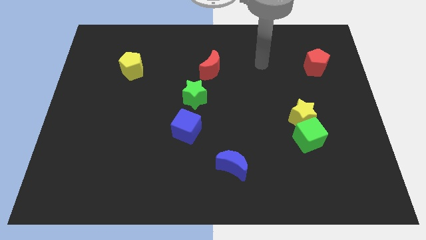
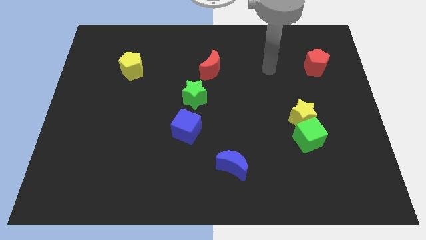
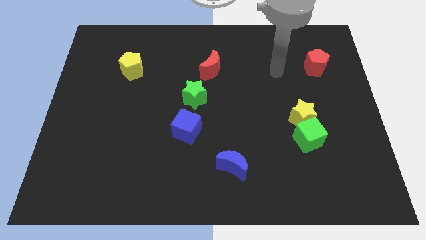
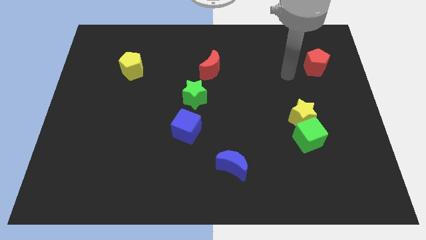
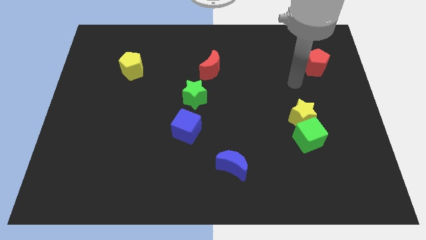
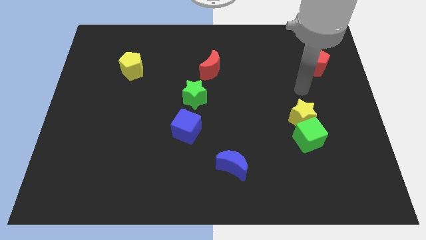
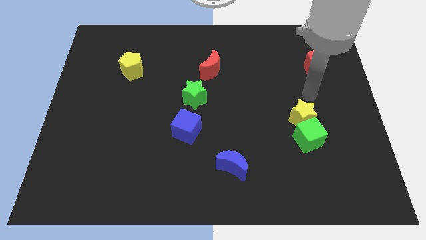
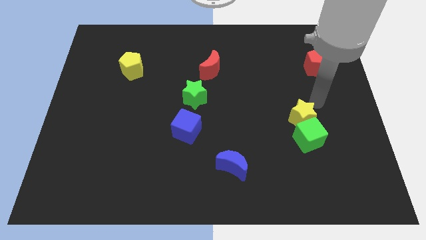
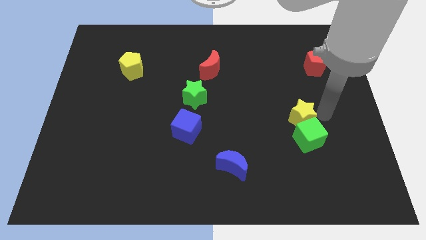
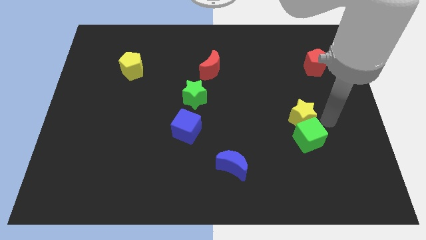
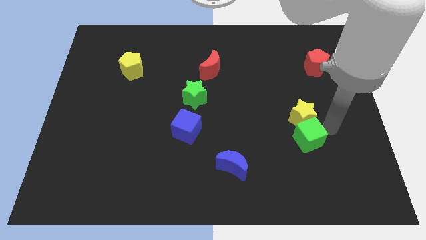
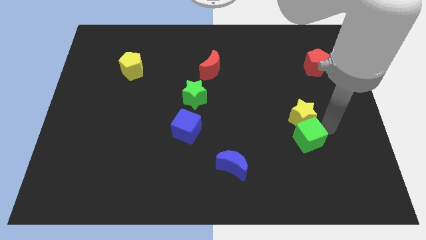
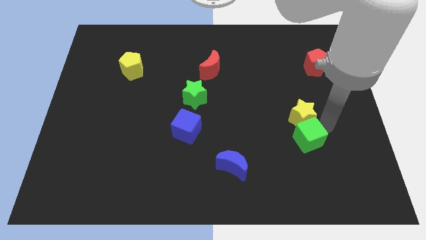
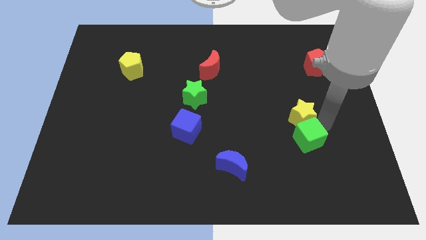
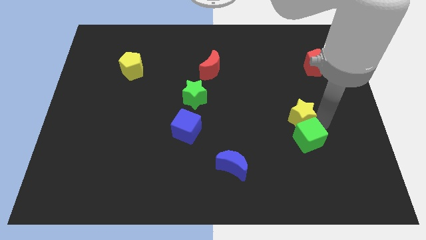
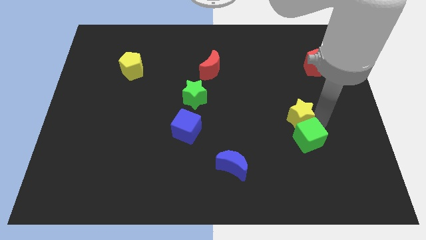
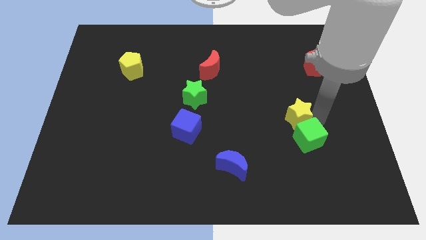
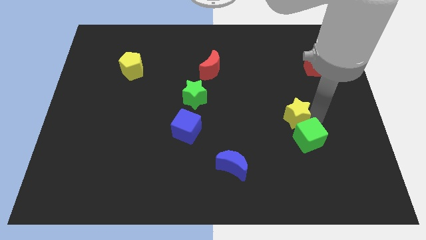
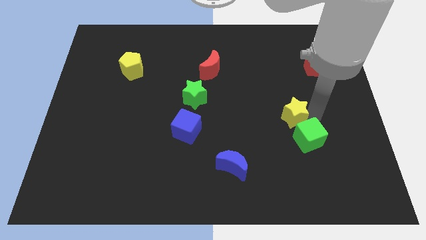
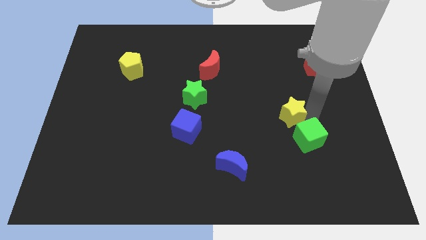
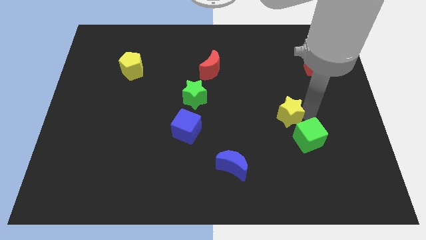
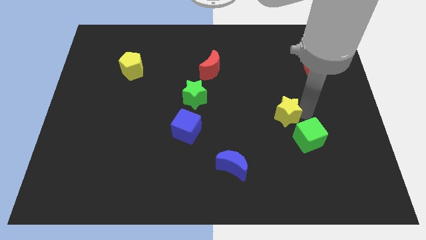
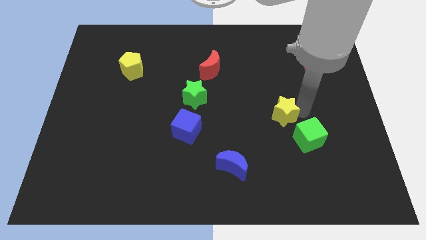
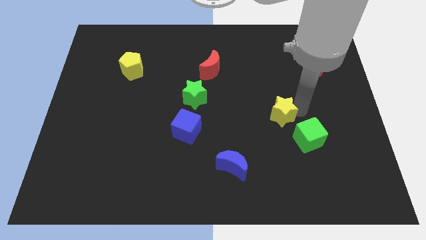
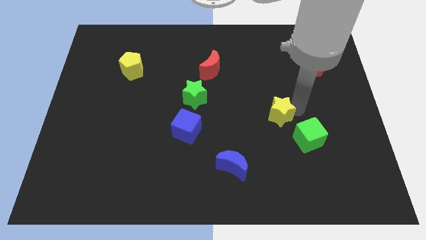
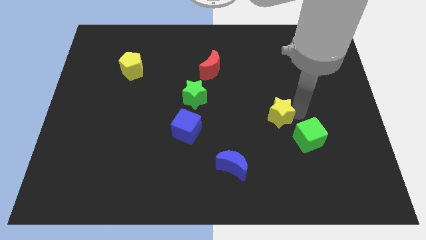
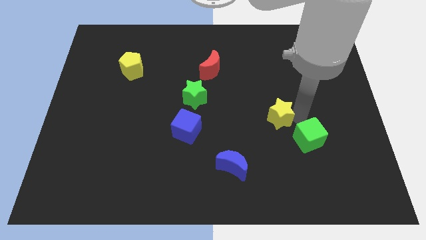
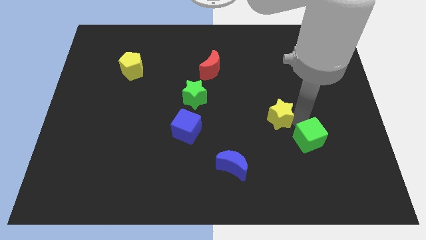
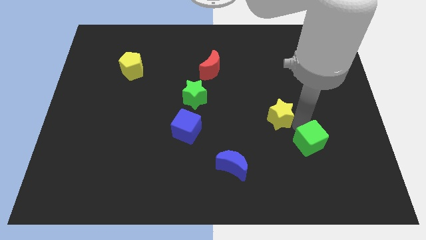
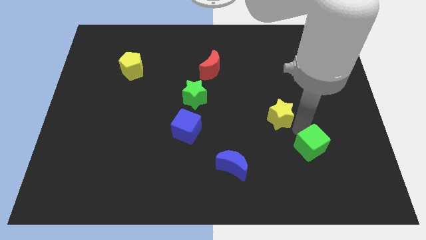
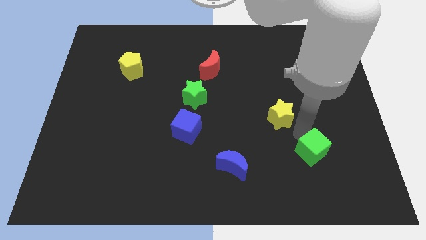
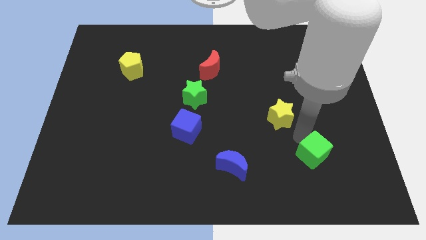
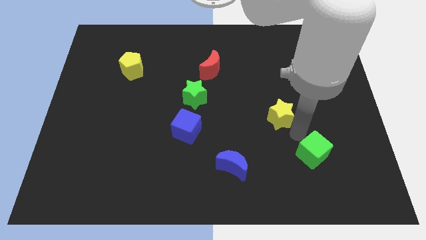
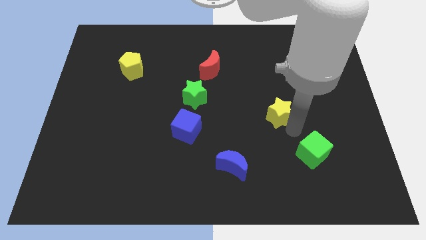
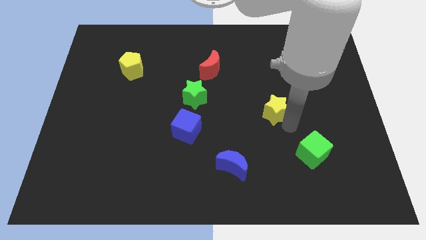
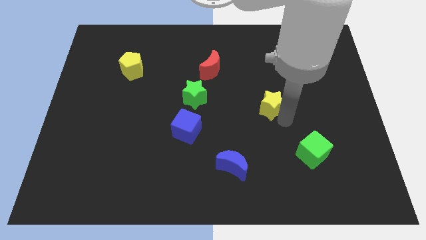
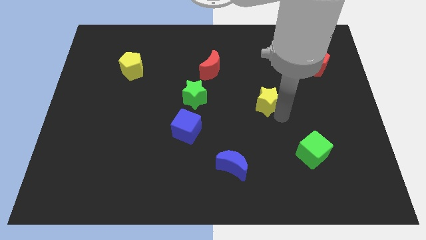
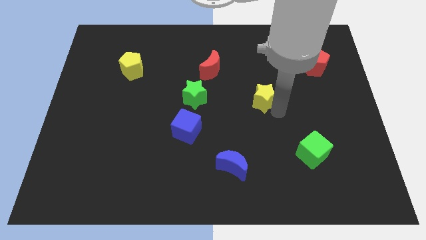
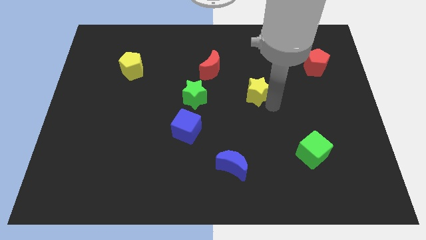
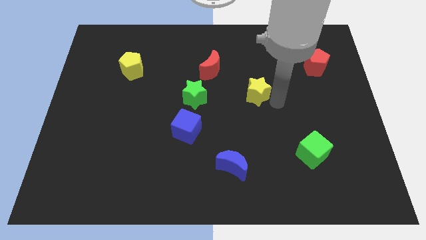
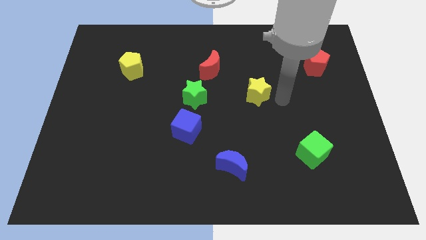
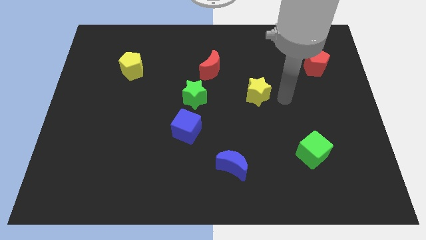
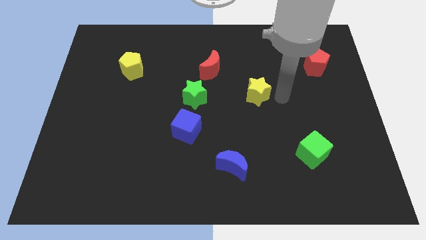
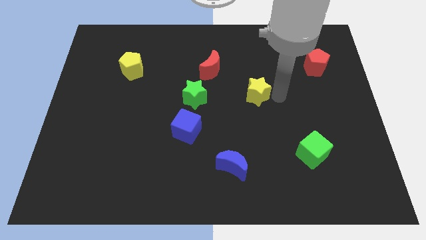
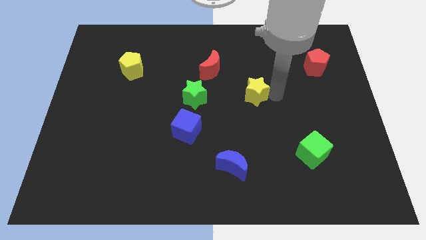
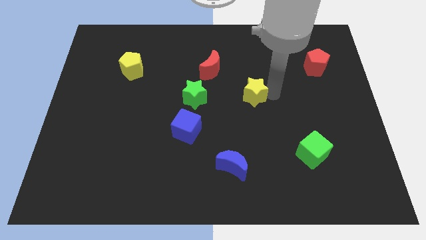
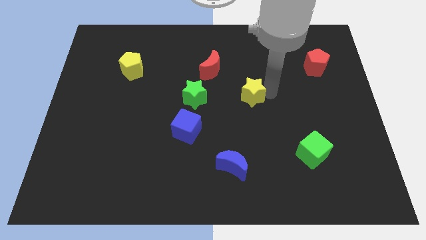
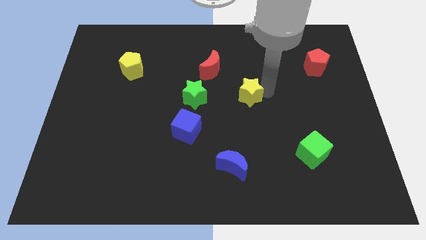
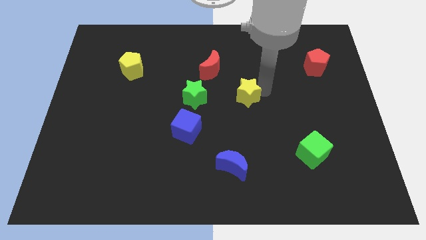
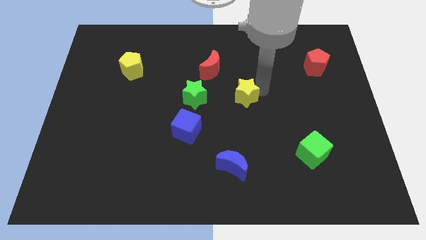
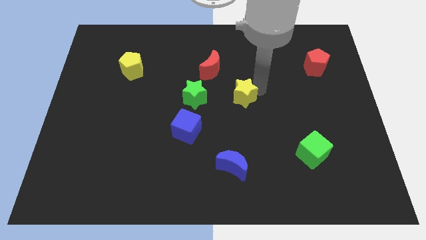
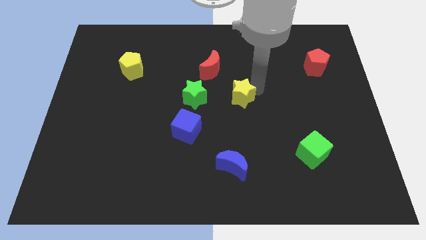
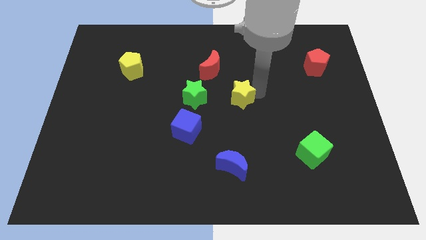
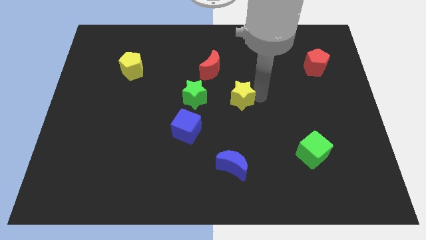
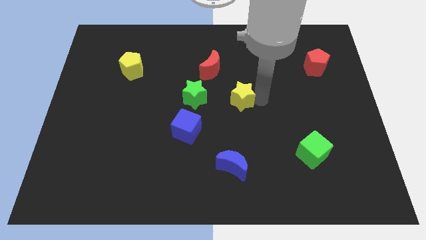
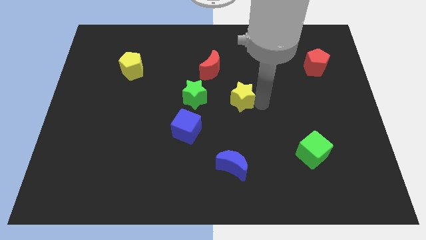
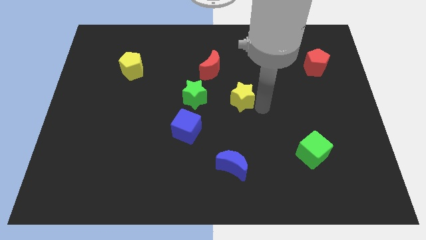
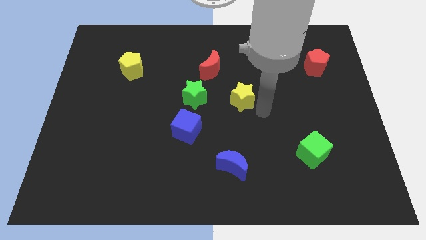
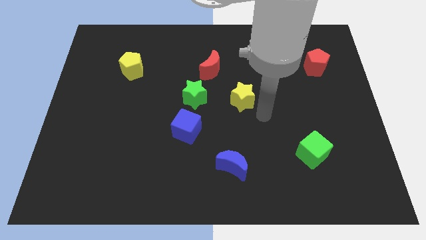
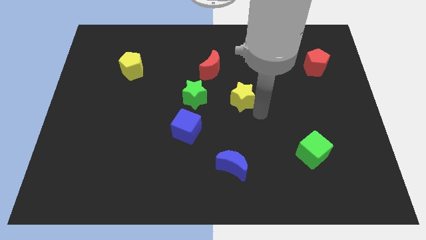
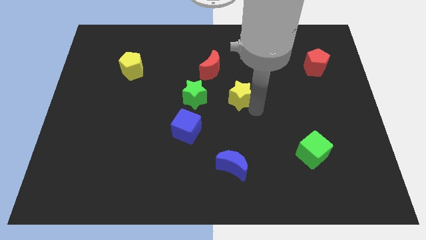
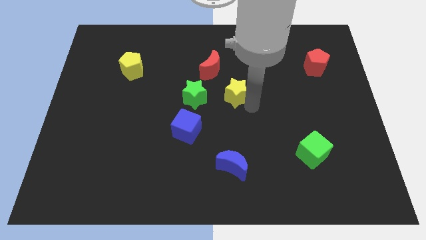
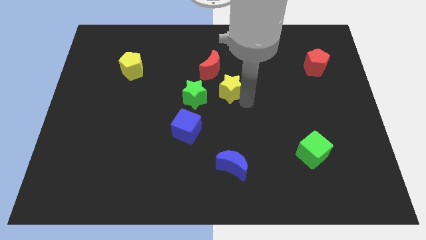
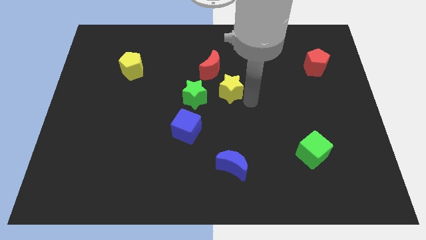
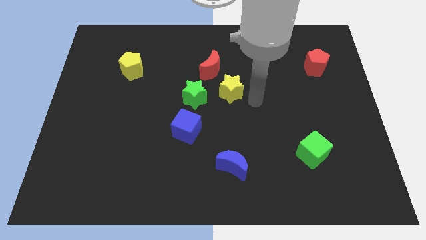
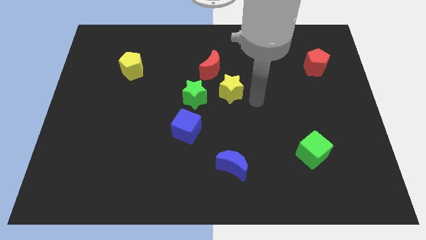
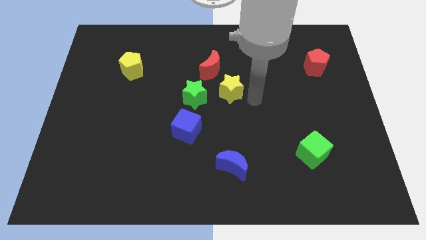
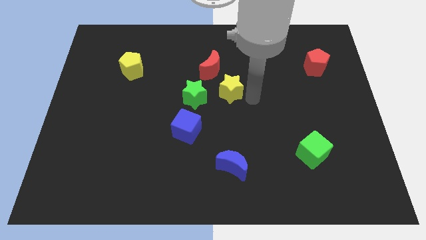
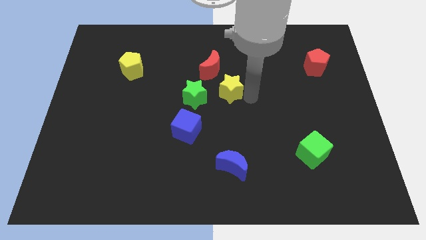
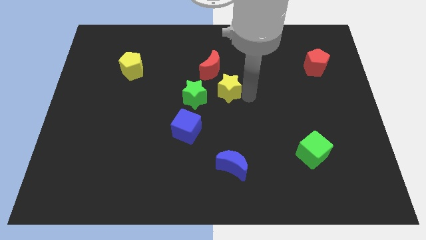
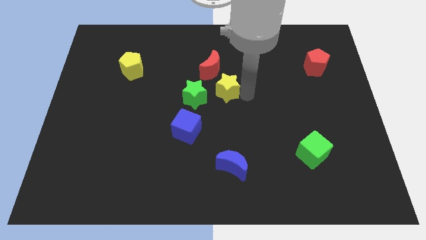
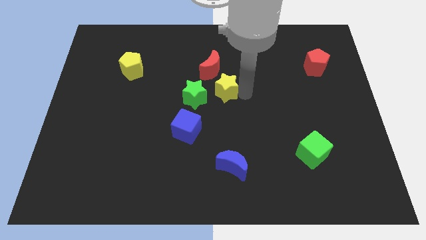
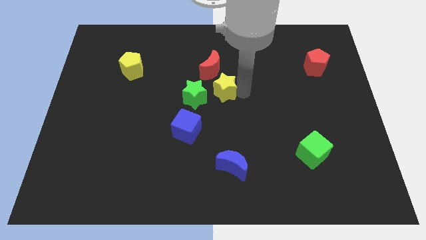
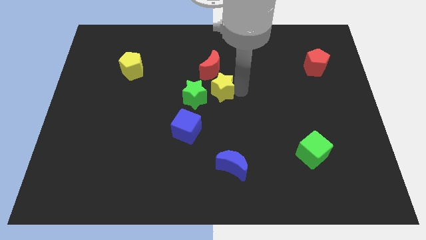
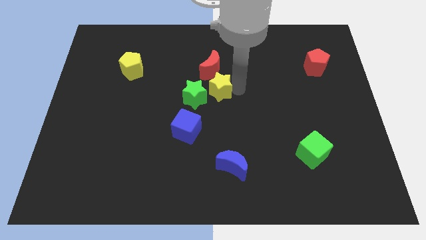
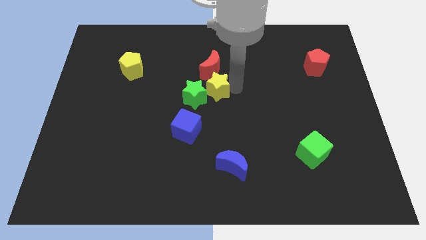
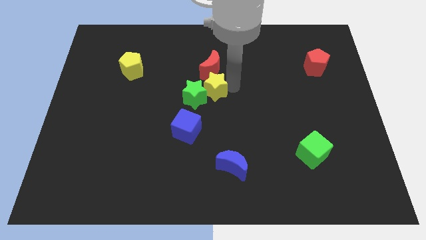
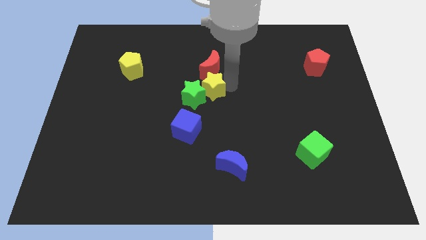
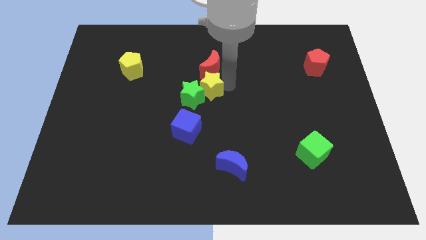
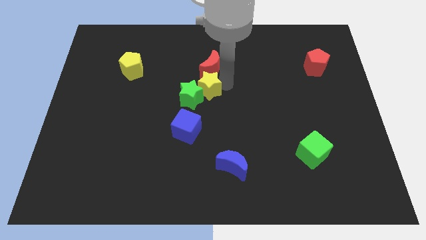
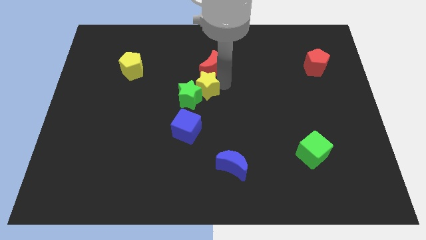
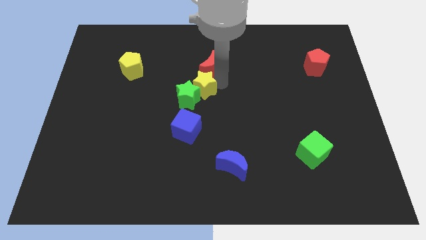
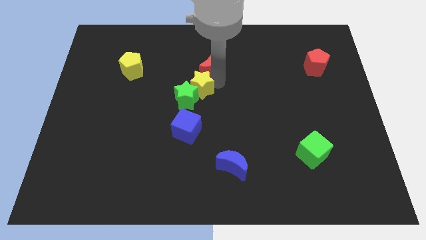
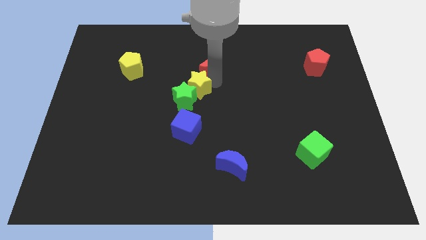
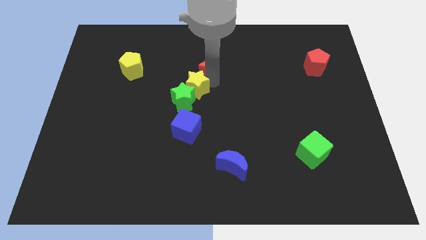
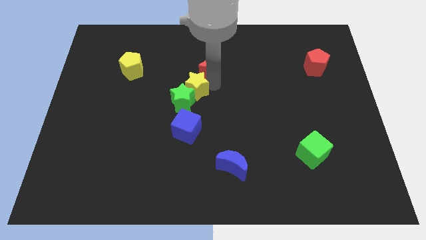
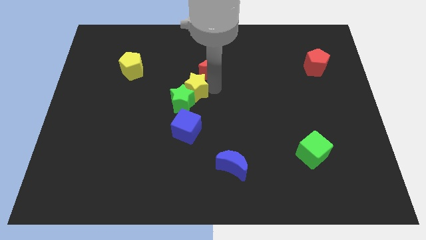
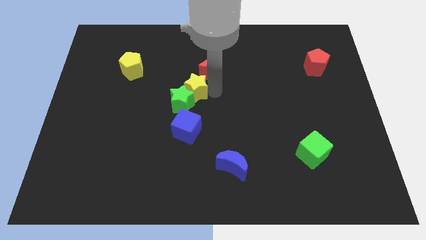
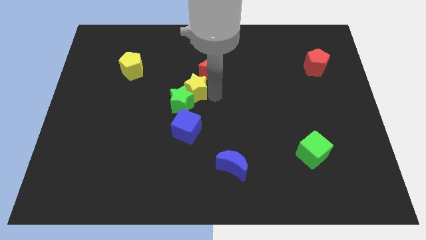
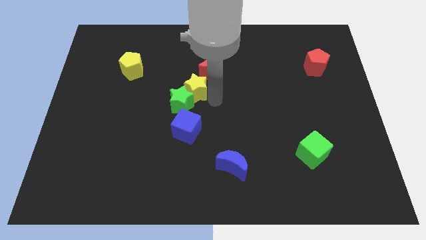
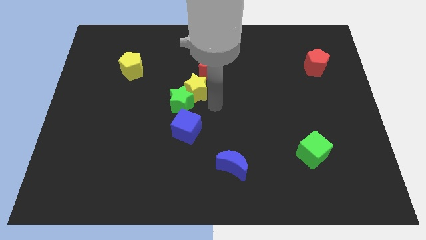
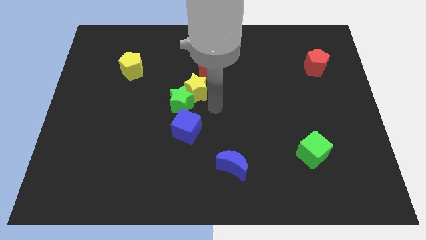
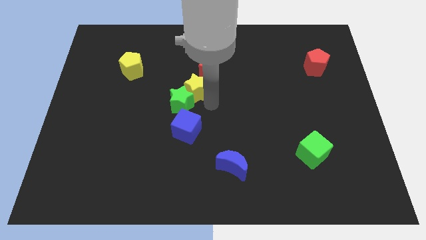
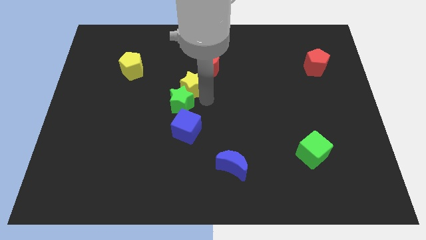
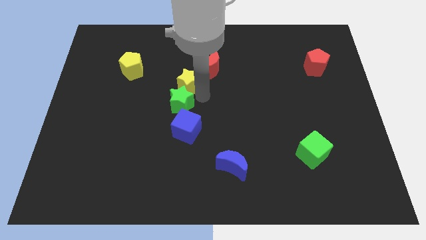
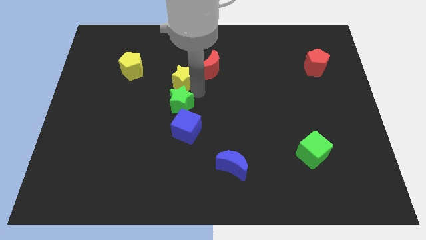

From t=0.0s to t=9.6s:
push the yellow star to the left side of the red moon
